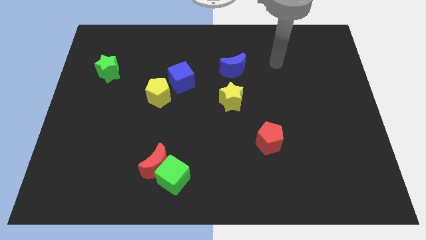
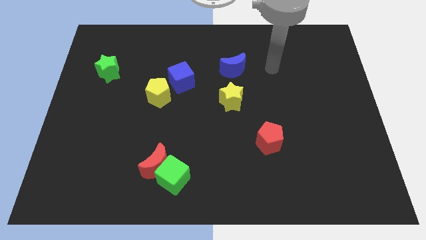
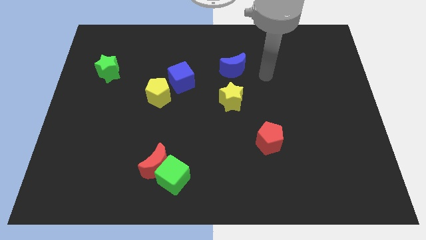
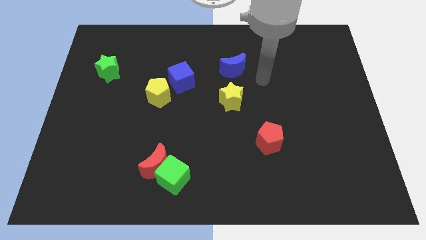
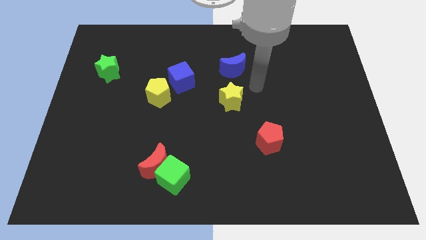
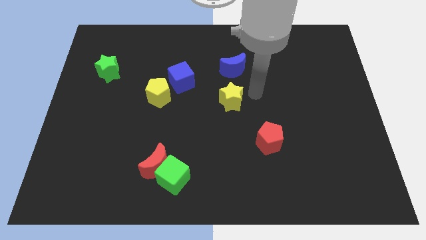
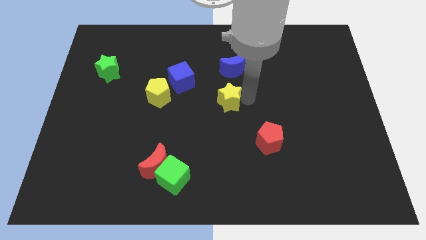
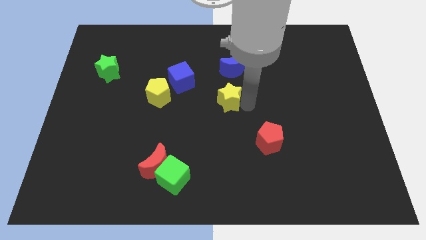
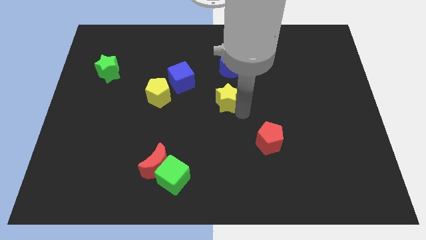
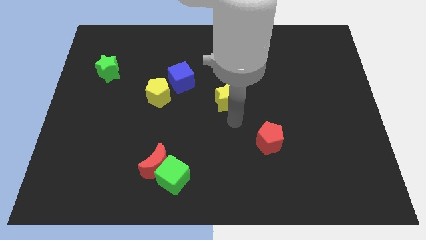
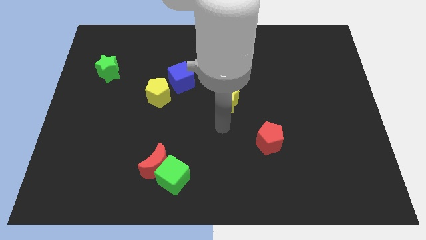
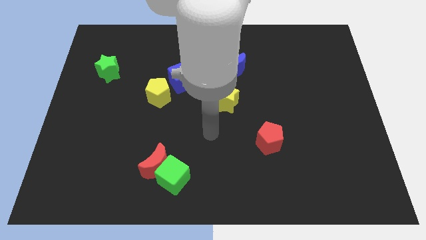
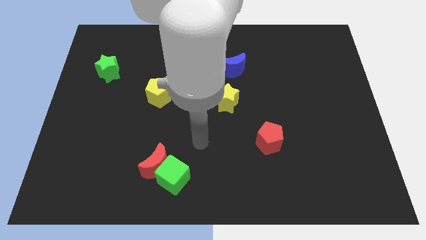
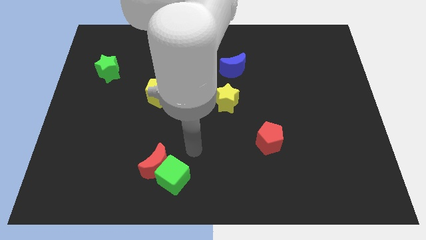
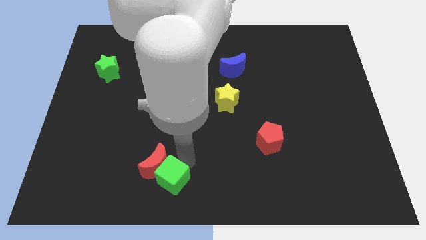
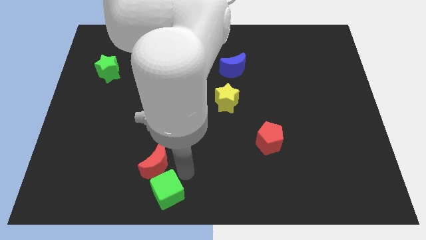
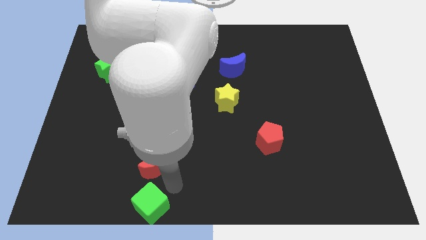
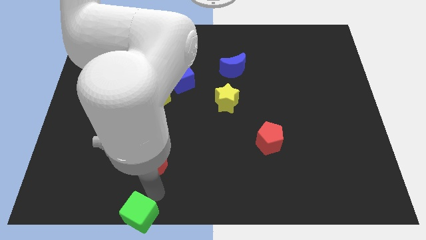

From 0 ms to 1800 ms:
separate the red moon from the green cube

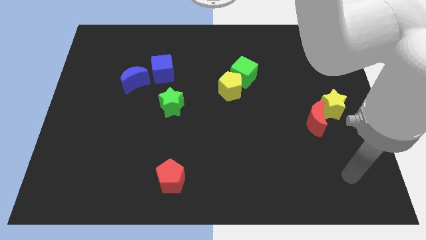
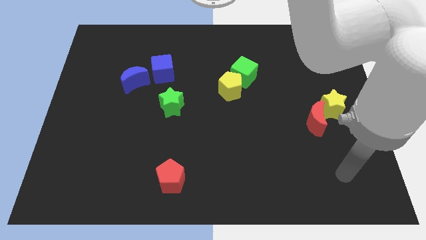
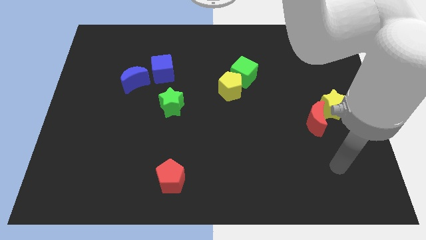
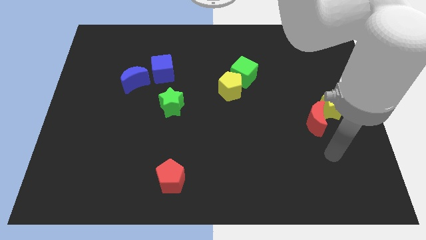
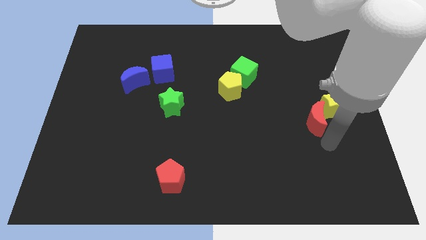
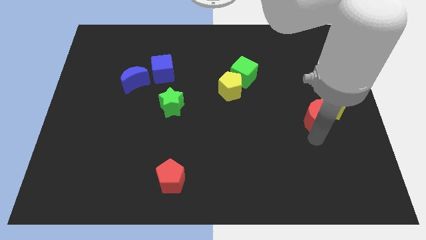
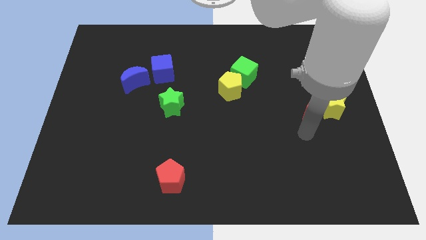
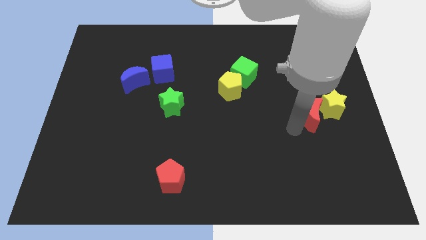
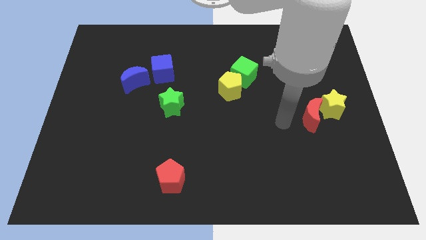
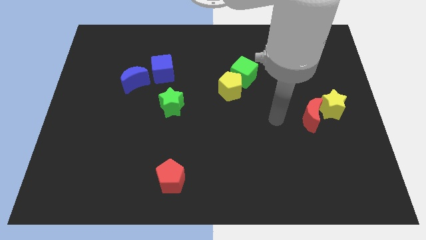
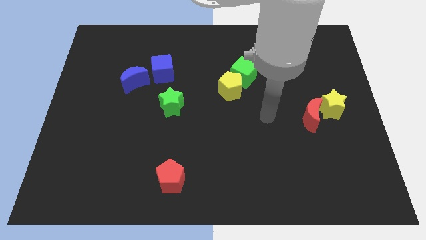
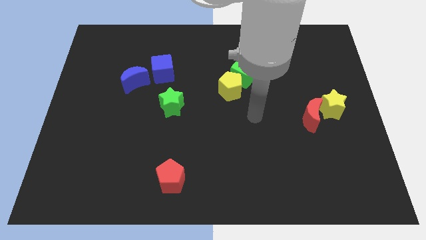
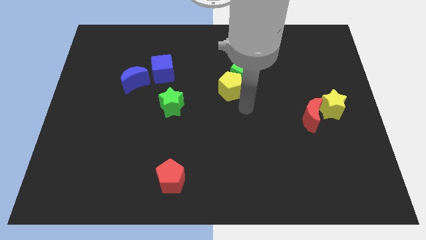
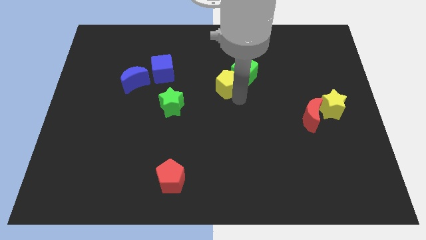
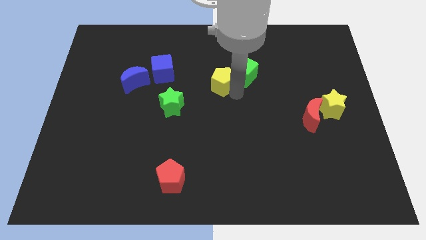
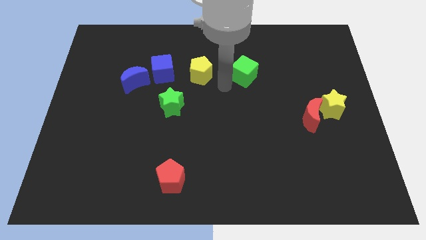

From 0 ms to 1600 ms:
pull the green cube apart from the yellow pentagon

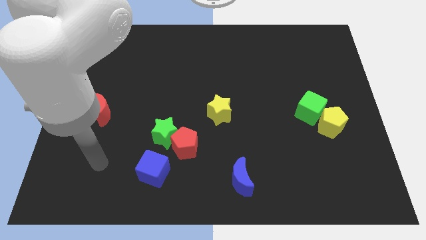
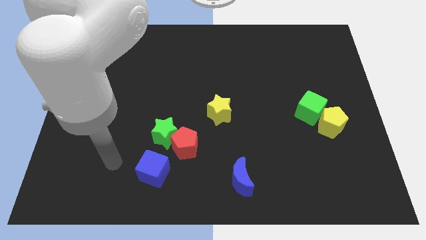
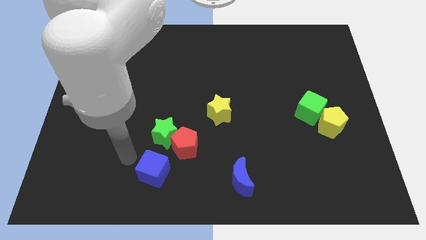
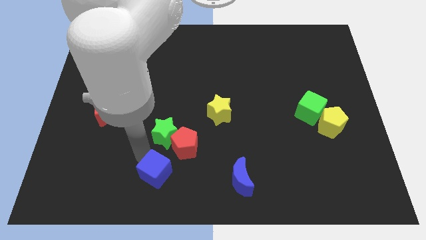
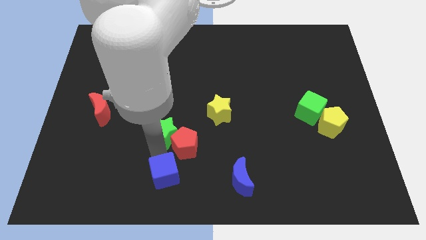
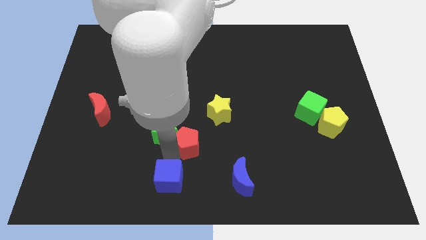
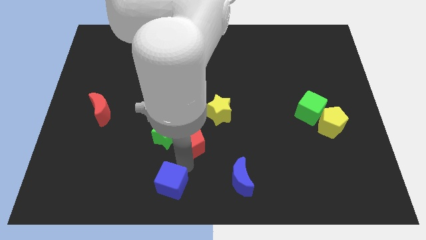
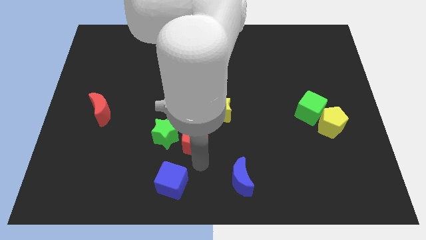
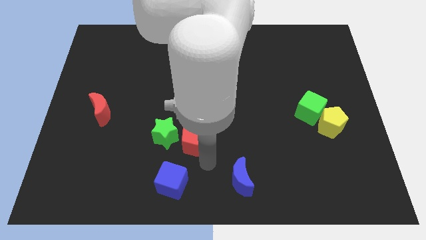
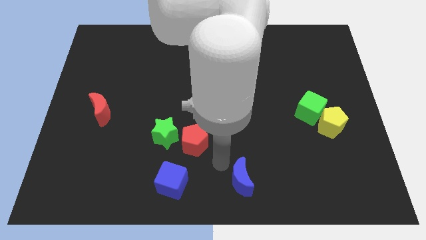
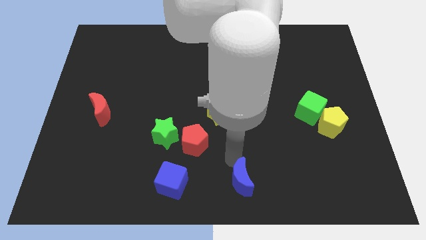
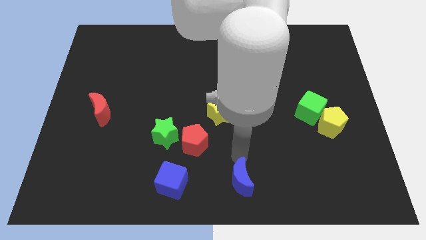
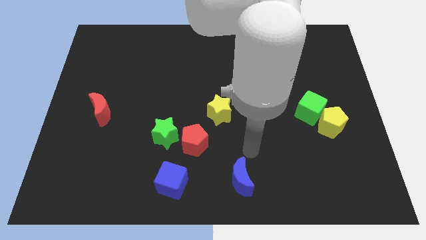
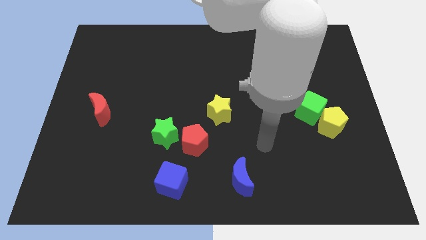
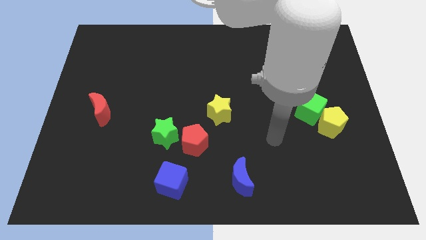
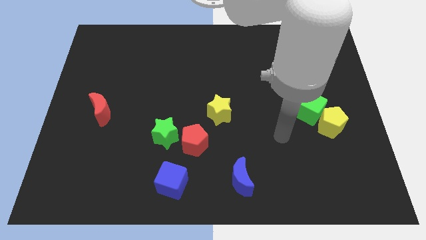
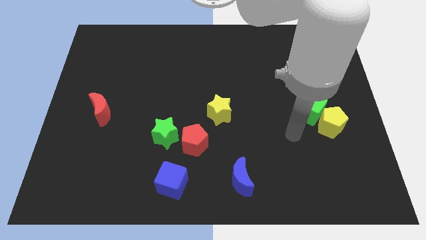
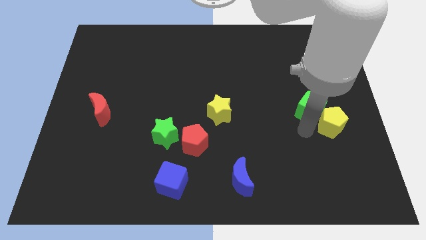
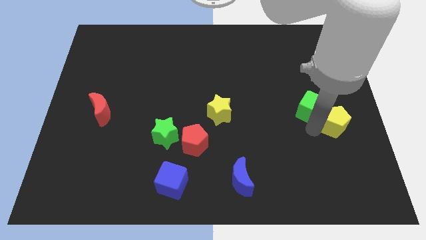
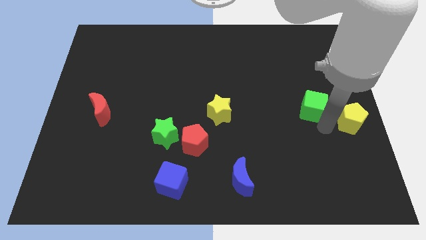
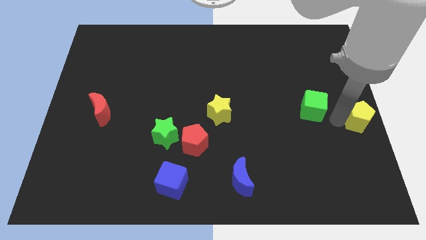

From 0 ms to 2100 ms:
separate the green cube from the yellow pentagon

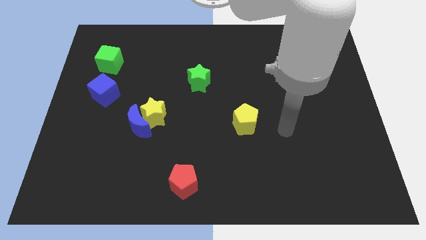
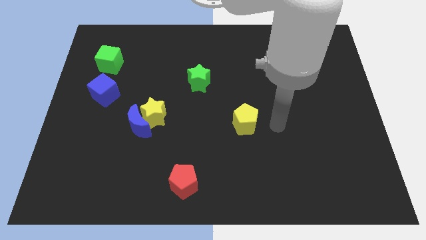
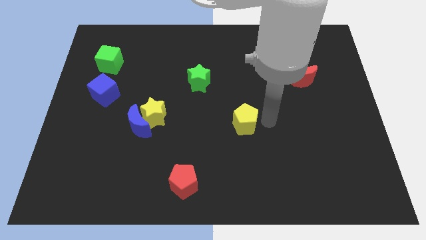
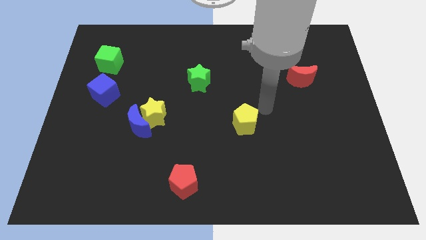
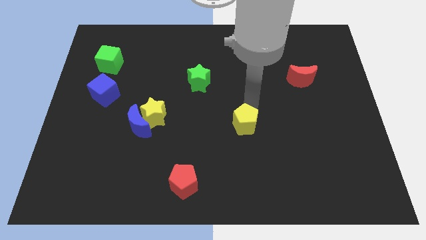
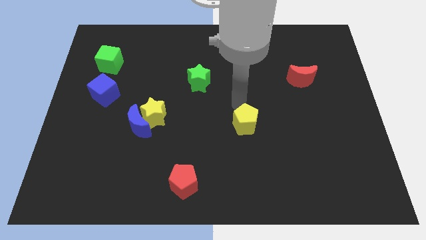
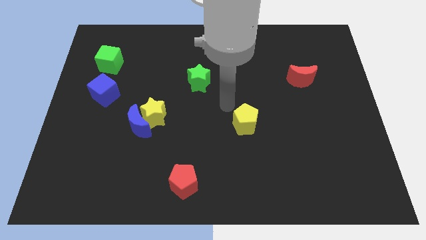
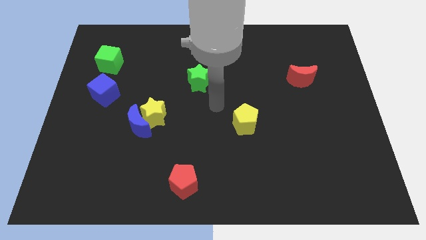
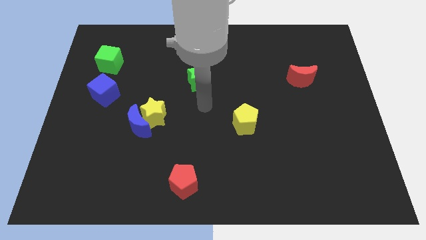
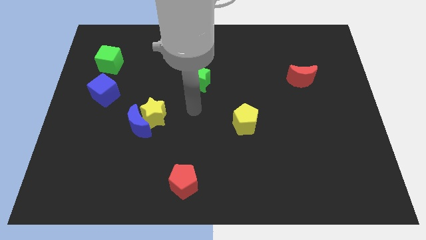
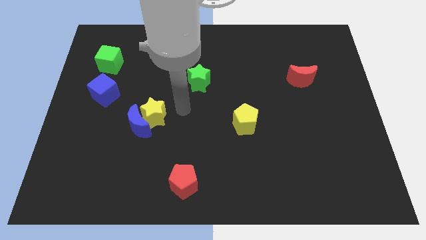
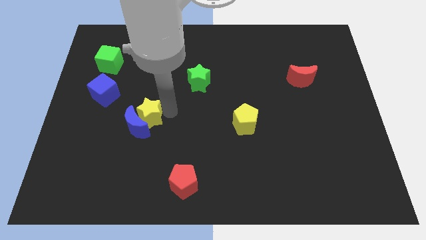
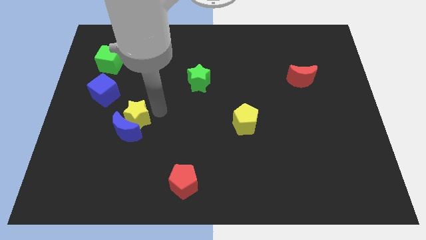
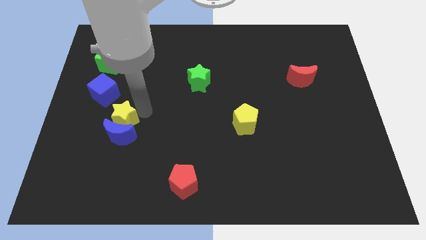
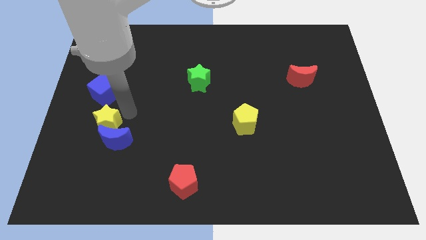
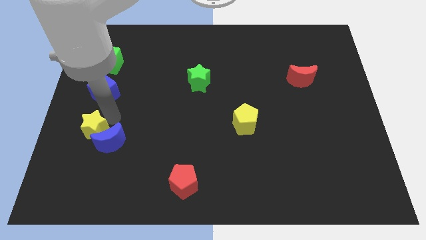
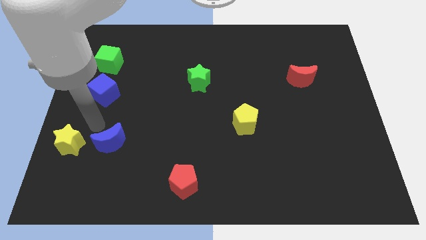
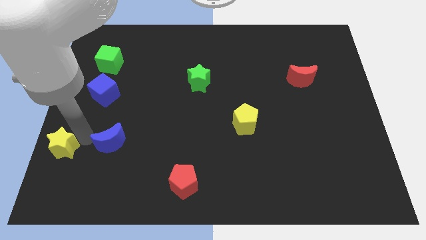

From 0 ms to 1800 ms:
move the blue moon away from the yellow star

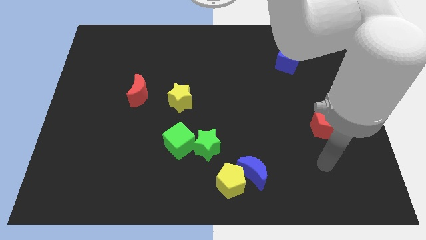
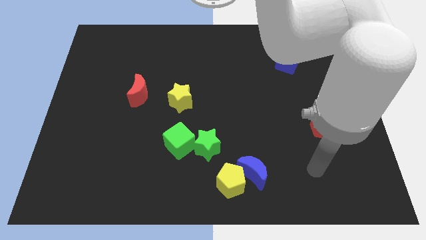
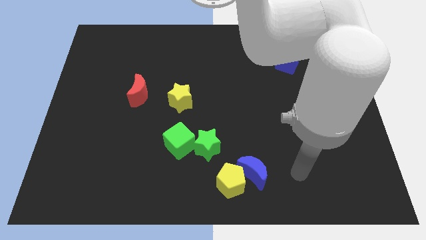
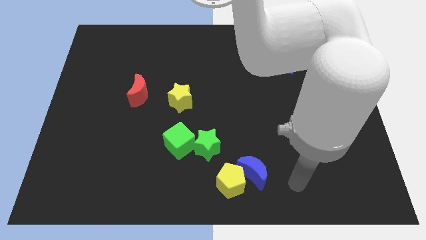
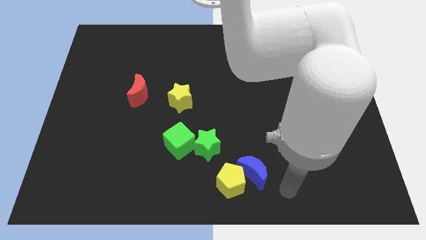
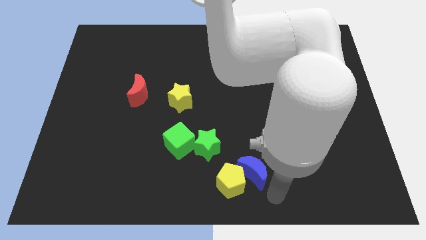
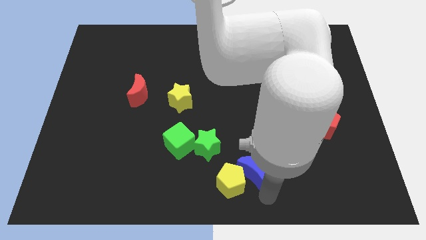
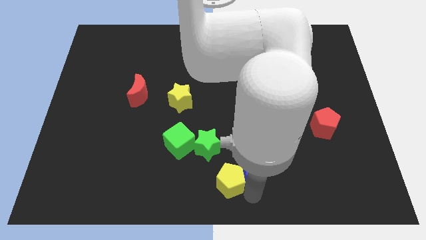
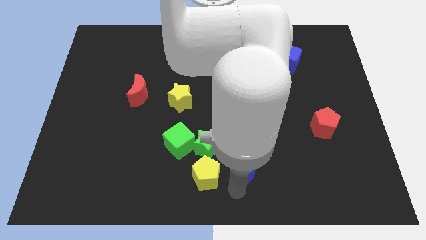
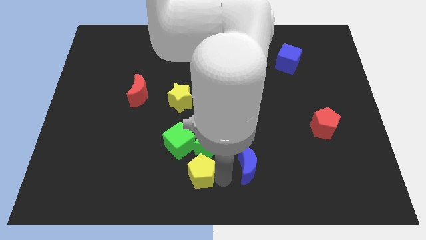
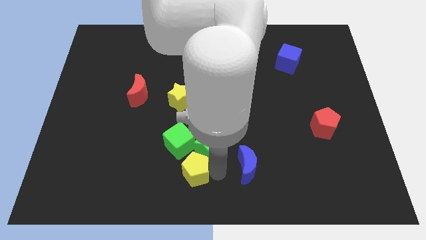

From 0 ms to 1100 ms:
separate the blue moon from the yellow pentagon

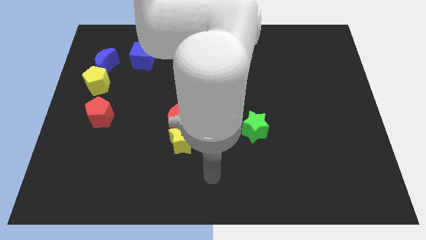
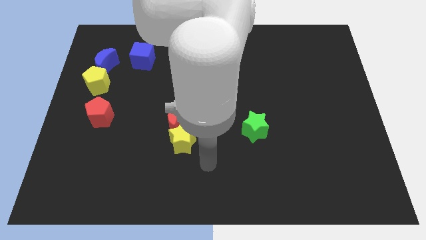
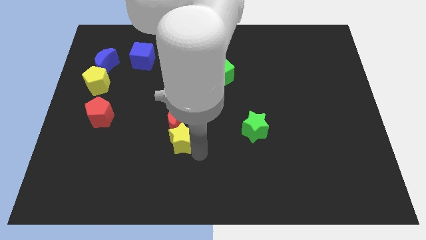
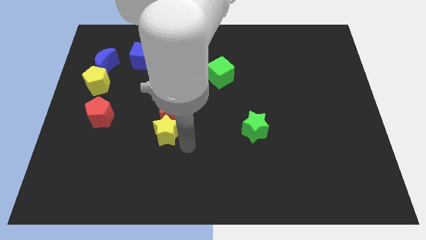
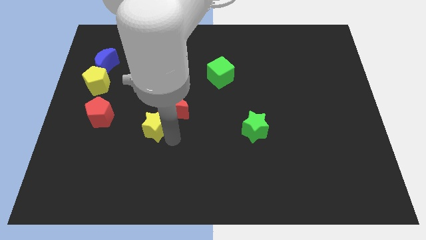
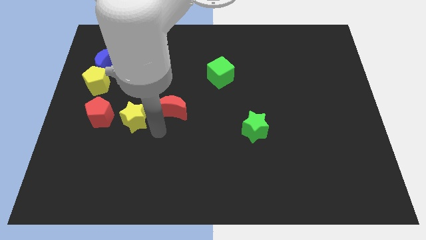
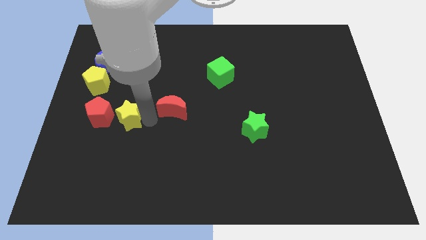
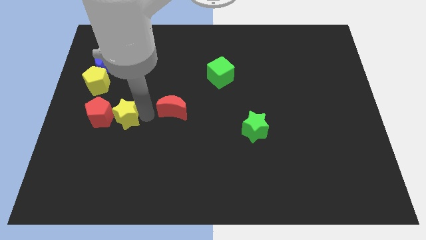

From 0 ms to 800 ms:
separate the red moon from the yellow star
